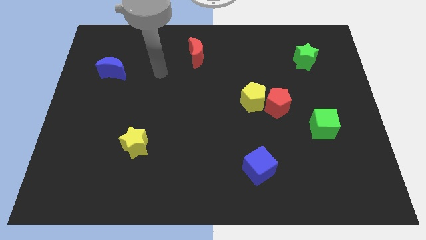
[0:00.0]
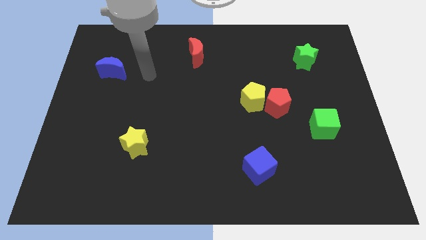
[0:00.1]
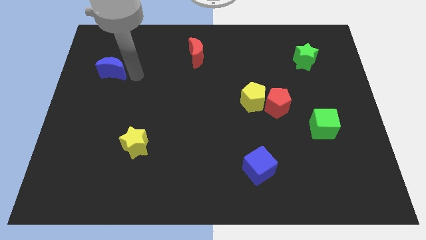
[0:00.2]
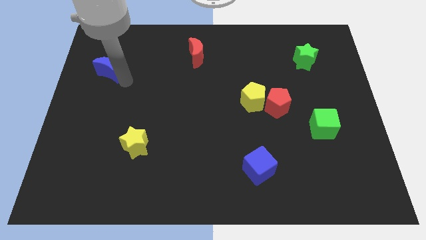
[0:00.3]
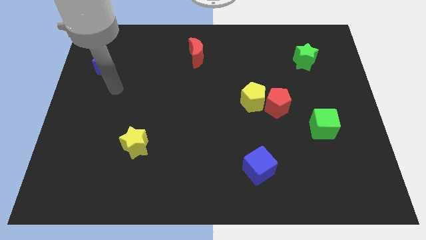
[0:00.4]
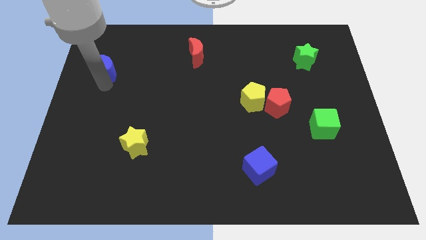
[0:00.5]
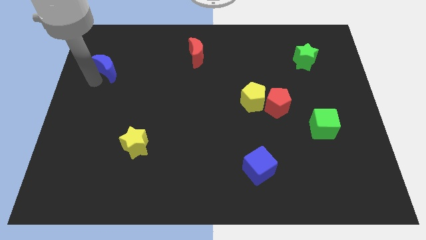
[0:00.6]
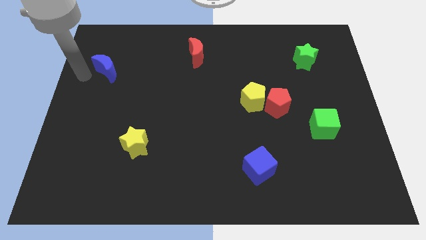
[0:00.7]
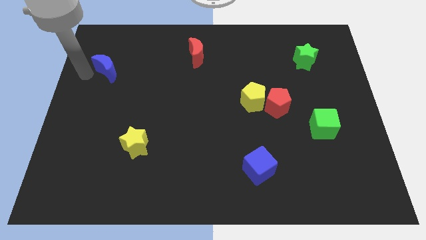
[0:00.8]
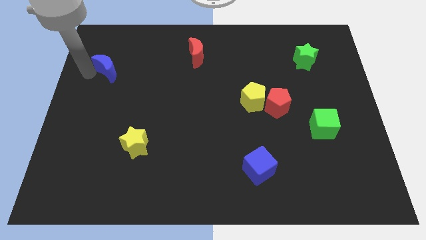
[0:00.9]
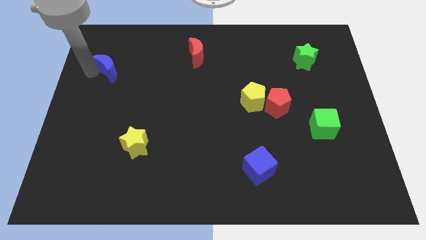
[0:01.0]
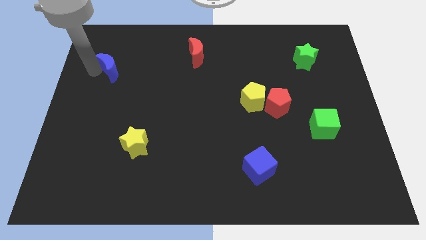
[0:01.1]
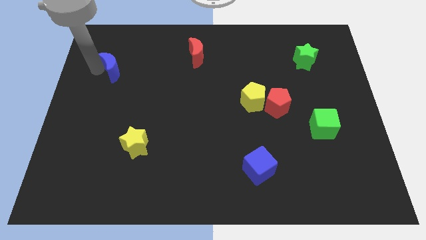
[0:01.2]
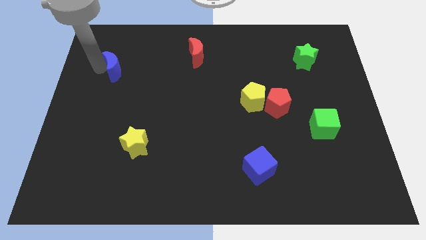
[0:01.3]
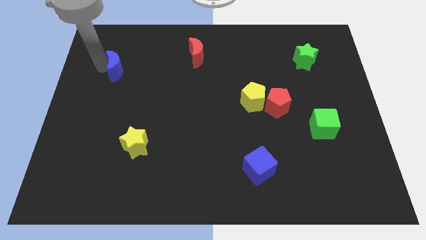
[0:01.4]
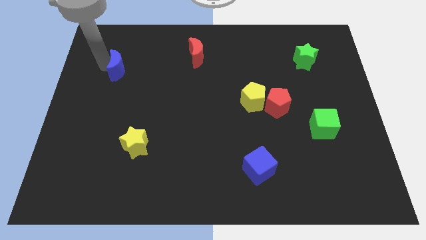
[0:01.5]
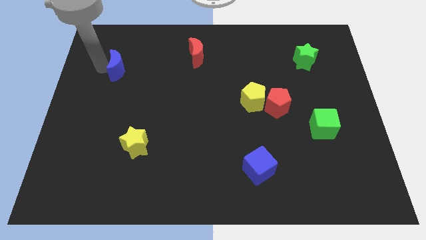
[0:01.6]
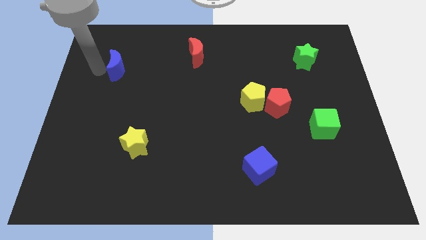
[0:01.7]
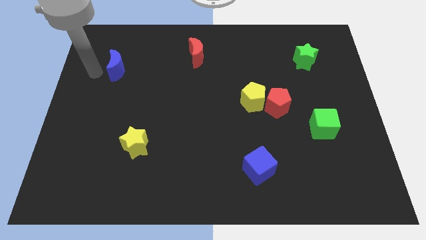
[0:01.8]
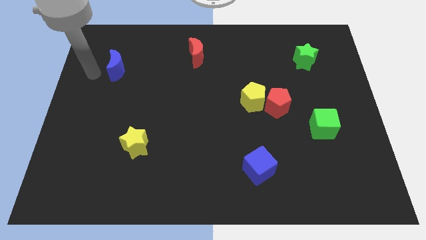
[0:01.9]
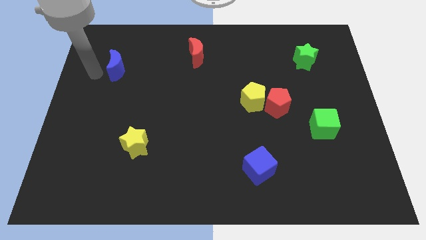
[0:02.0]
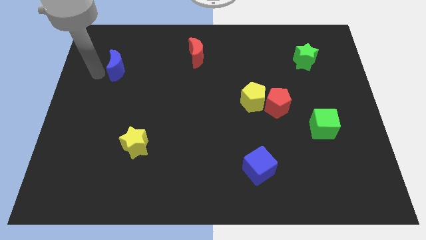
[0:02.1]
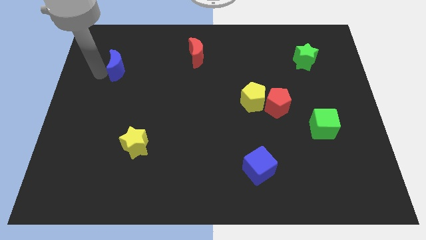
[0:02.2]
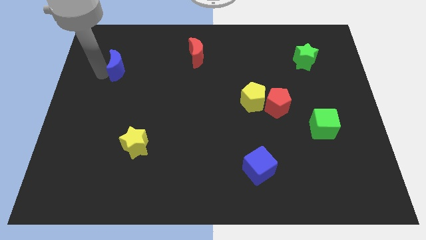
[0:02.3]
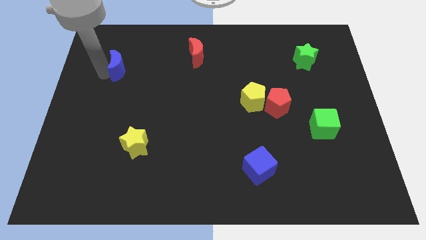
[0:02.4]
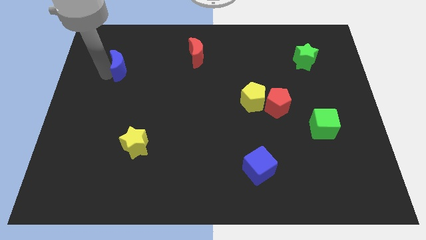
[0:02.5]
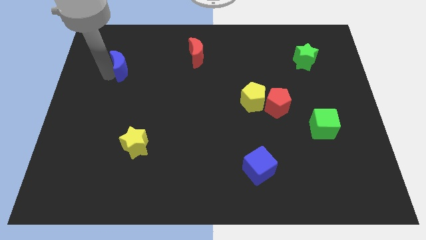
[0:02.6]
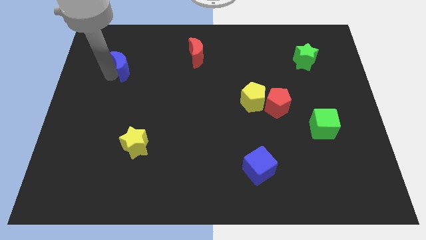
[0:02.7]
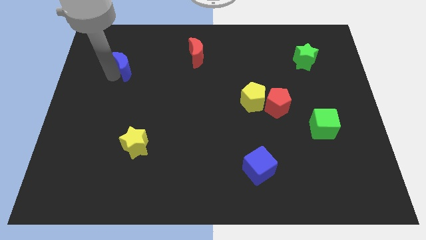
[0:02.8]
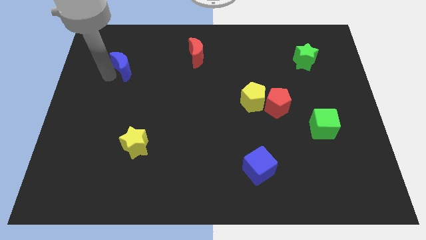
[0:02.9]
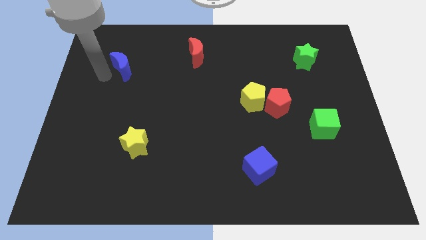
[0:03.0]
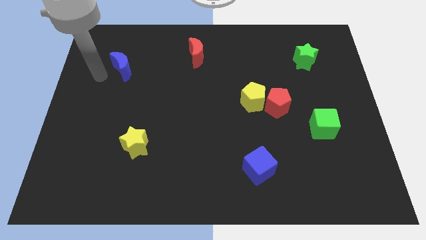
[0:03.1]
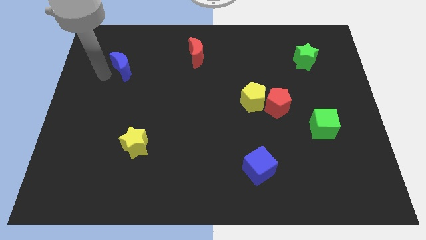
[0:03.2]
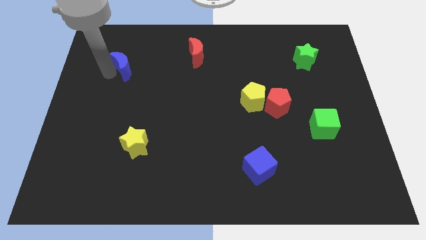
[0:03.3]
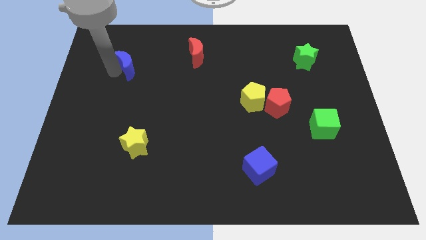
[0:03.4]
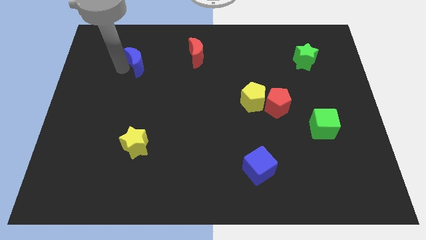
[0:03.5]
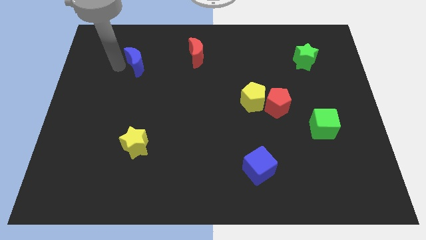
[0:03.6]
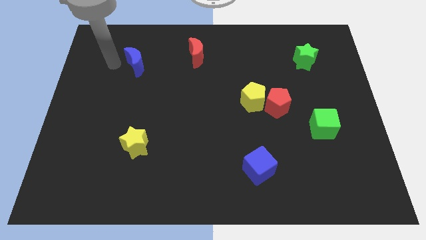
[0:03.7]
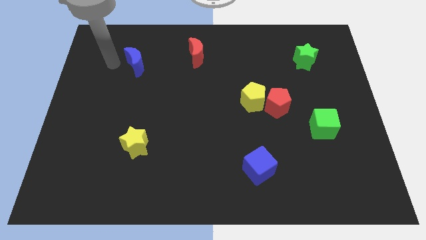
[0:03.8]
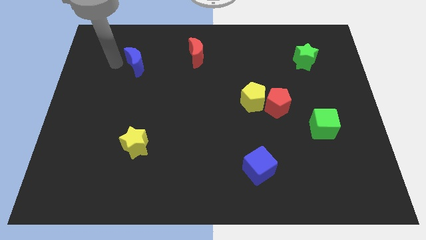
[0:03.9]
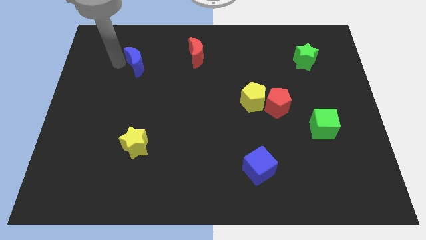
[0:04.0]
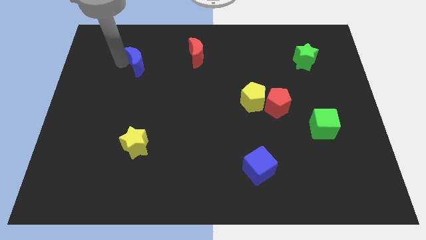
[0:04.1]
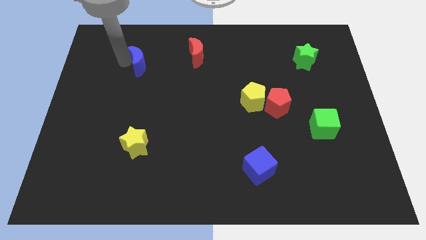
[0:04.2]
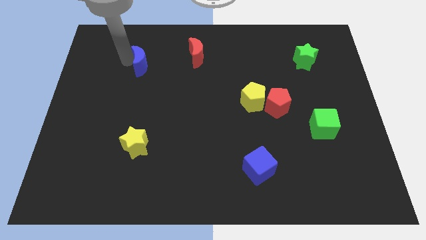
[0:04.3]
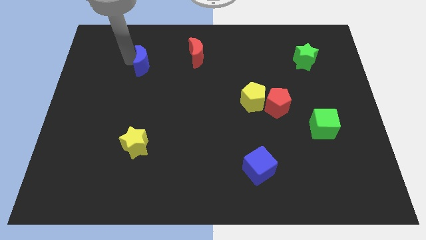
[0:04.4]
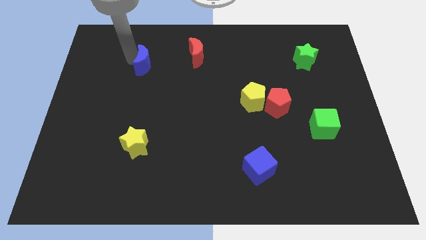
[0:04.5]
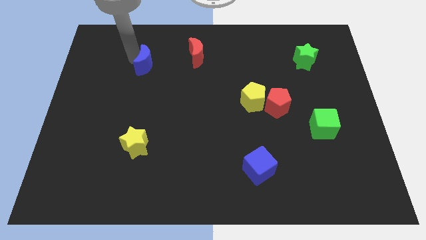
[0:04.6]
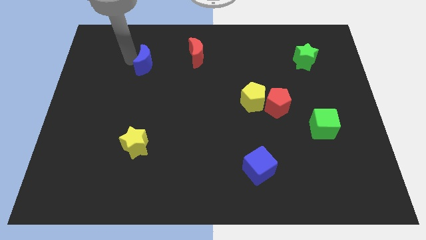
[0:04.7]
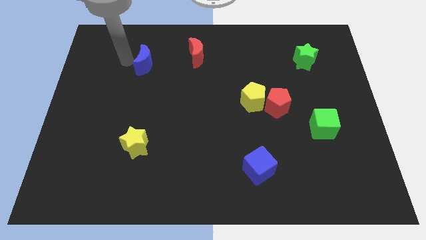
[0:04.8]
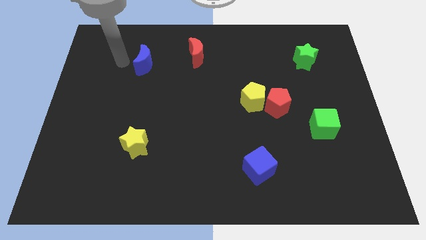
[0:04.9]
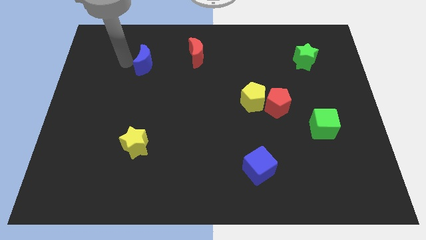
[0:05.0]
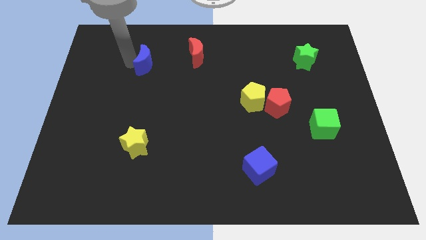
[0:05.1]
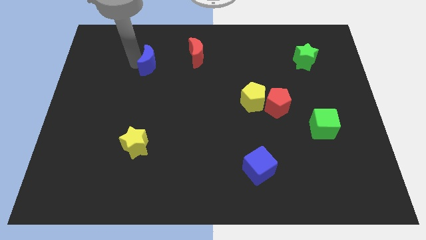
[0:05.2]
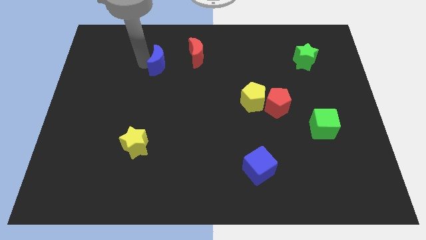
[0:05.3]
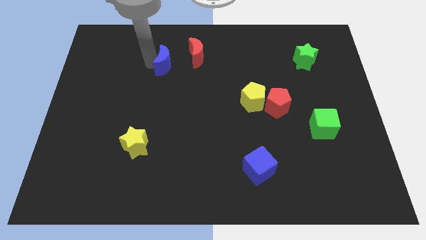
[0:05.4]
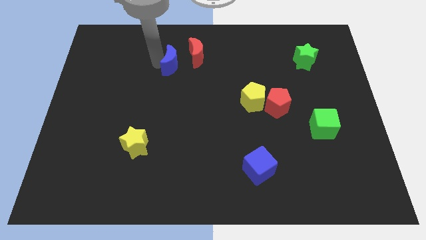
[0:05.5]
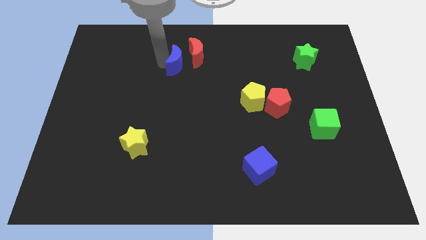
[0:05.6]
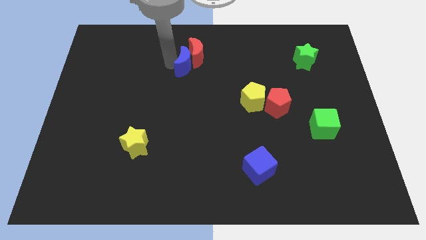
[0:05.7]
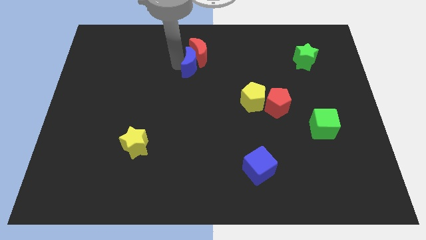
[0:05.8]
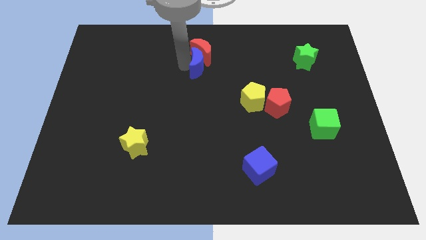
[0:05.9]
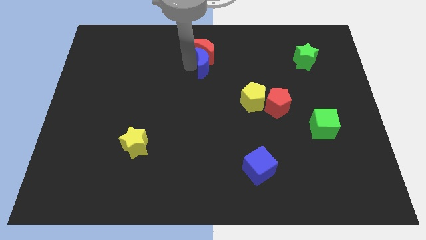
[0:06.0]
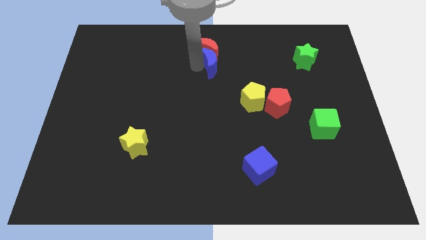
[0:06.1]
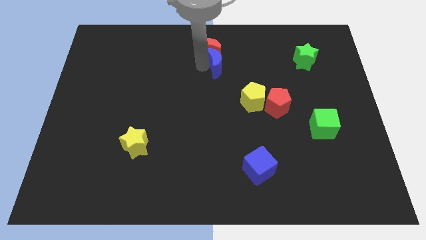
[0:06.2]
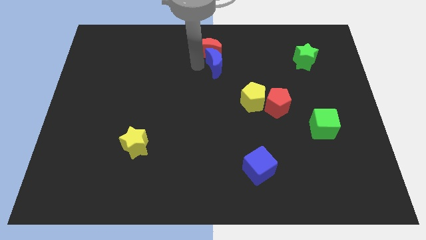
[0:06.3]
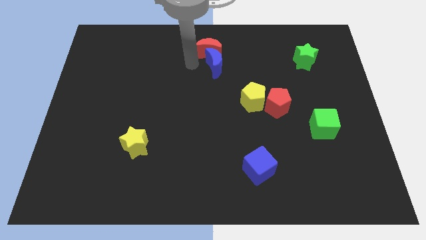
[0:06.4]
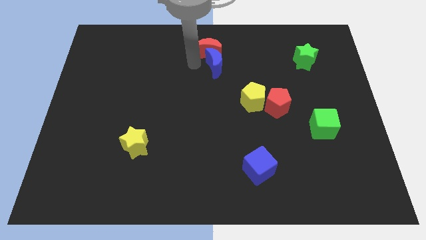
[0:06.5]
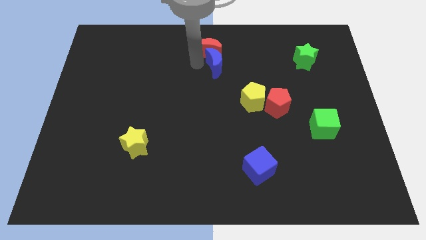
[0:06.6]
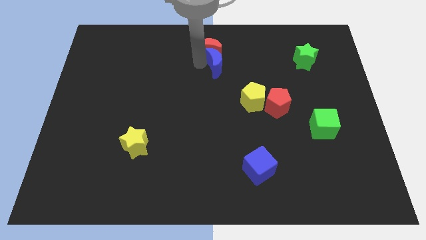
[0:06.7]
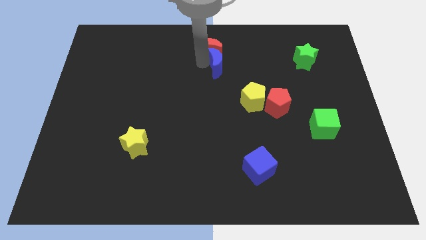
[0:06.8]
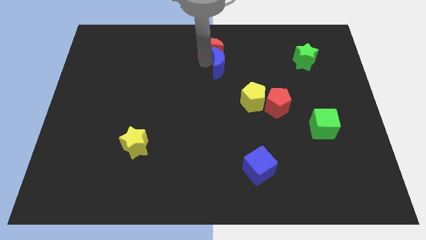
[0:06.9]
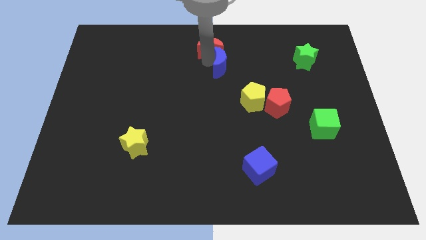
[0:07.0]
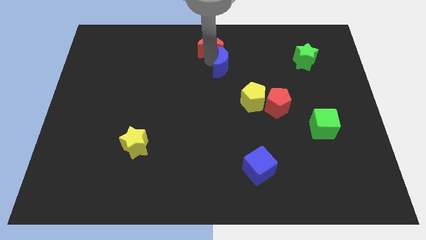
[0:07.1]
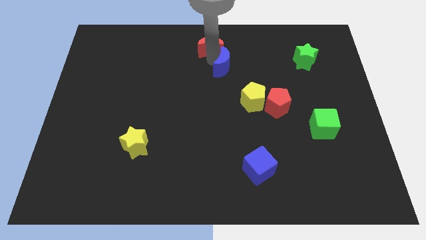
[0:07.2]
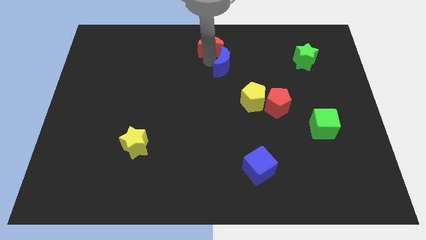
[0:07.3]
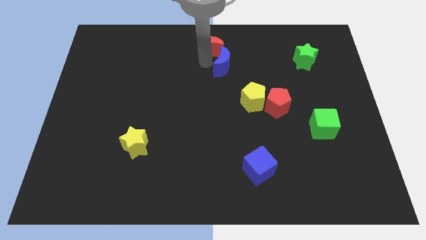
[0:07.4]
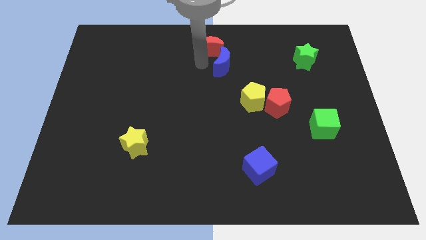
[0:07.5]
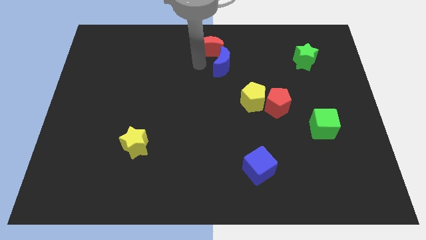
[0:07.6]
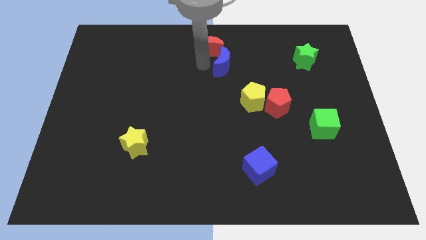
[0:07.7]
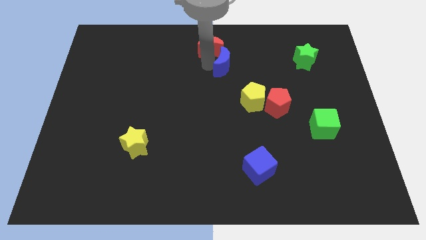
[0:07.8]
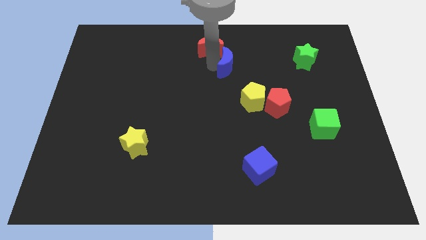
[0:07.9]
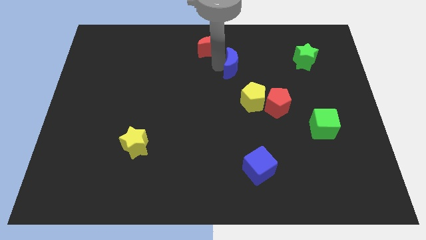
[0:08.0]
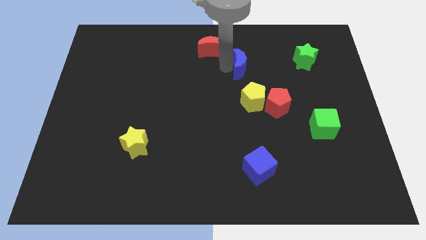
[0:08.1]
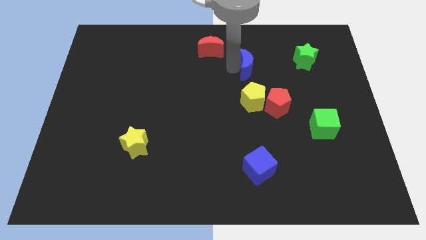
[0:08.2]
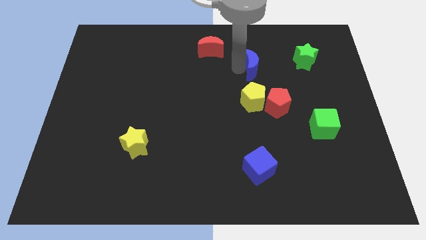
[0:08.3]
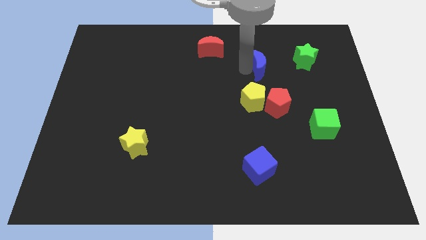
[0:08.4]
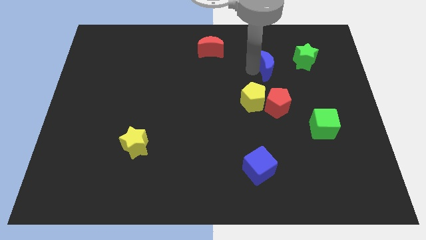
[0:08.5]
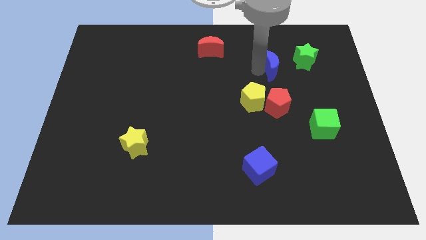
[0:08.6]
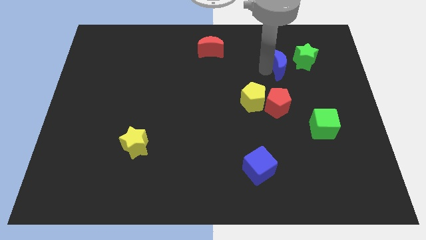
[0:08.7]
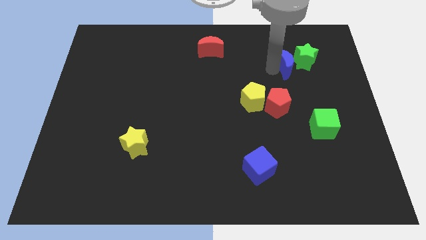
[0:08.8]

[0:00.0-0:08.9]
push the blue moon towards the green star
